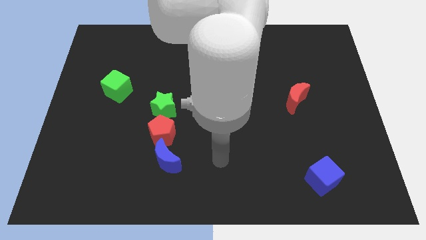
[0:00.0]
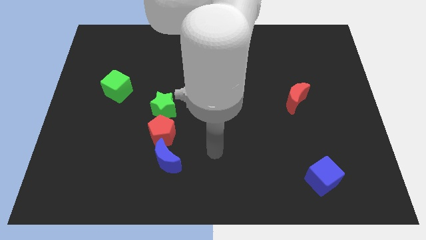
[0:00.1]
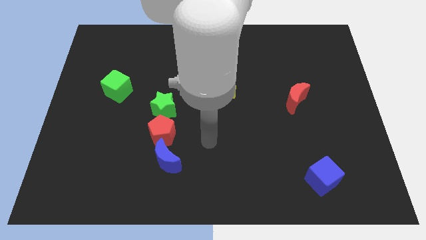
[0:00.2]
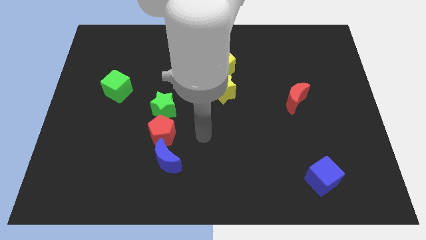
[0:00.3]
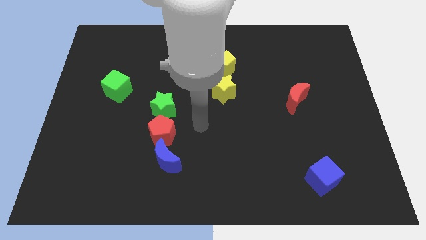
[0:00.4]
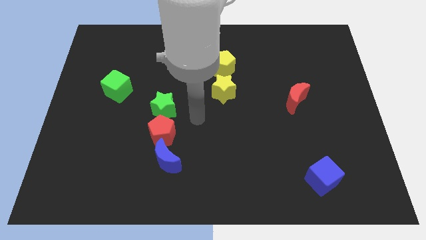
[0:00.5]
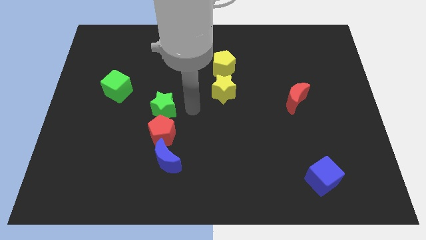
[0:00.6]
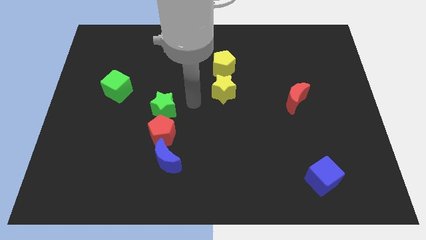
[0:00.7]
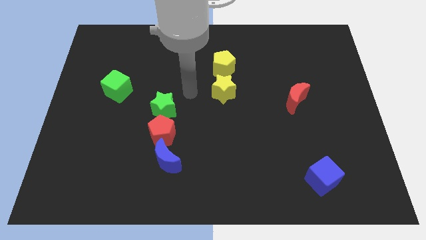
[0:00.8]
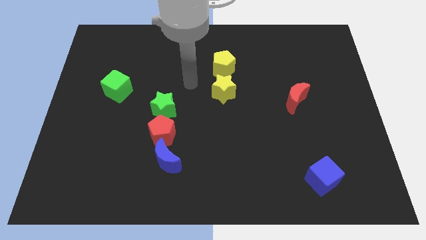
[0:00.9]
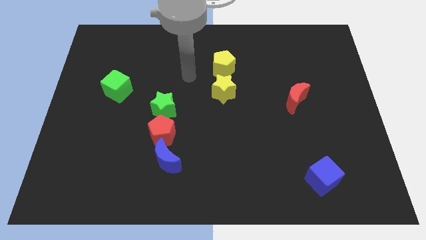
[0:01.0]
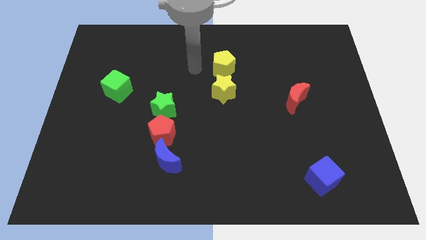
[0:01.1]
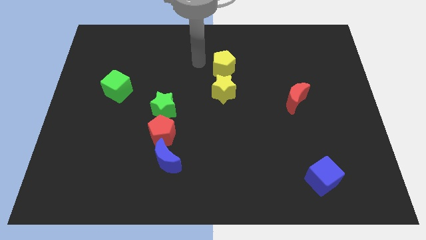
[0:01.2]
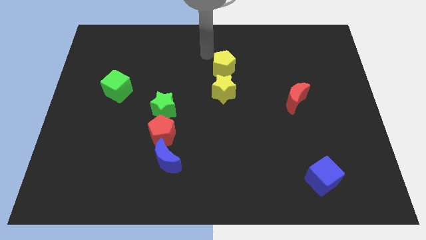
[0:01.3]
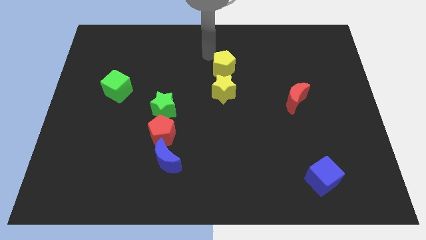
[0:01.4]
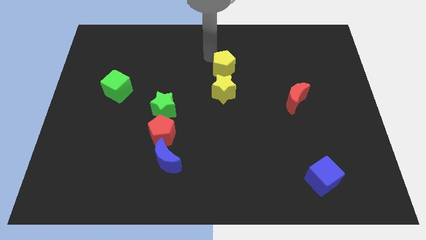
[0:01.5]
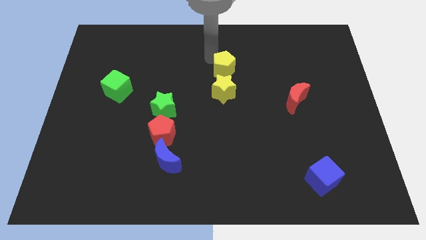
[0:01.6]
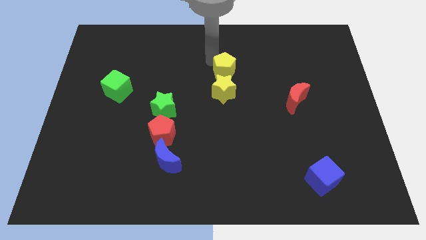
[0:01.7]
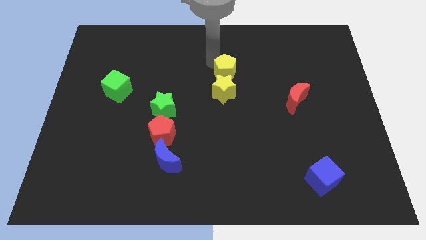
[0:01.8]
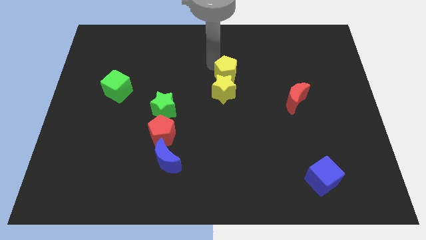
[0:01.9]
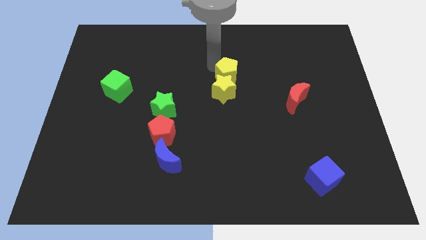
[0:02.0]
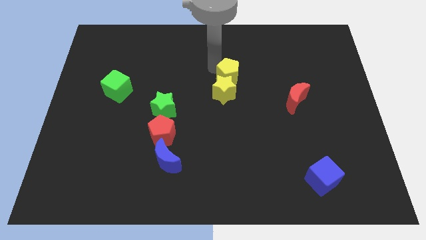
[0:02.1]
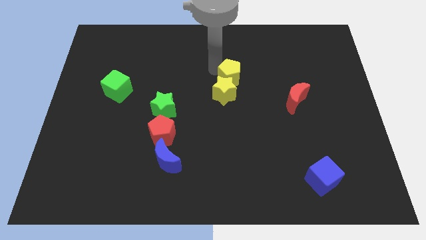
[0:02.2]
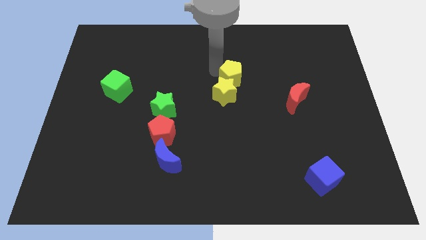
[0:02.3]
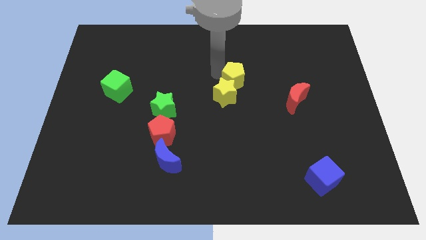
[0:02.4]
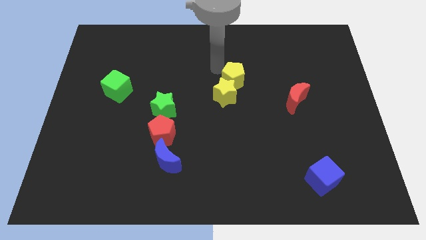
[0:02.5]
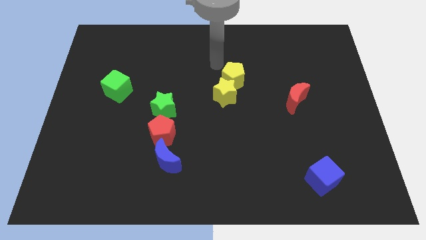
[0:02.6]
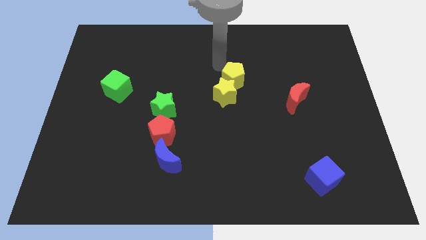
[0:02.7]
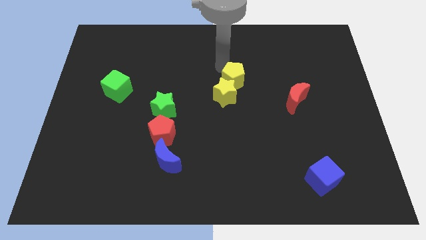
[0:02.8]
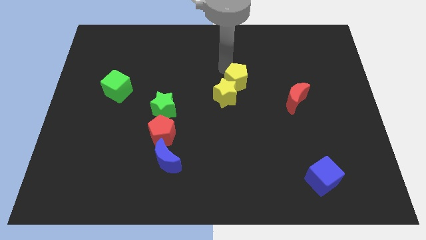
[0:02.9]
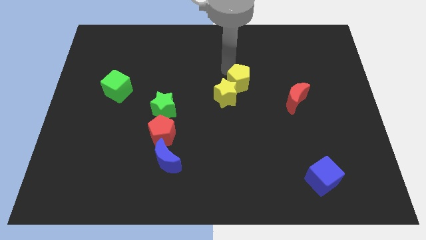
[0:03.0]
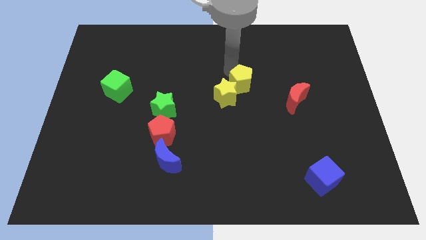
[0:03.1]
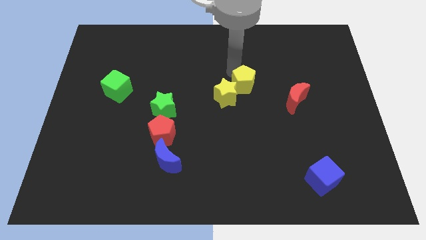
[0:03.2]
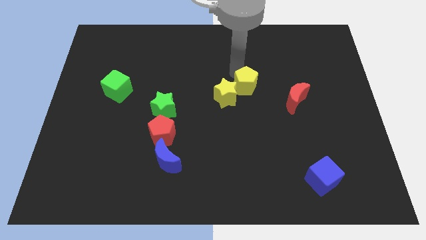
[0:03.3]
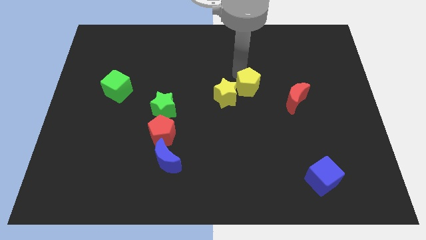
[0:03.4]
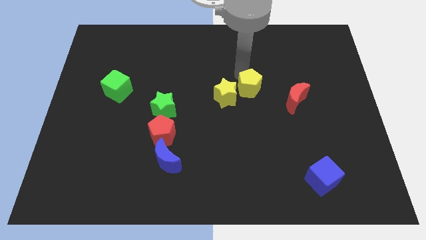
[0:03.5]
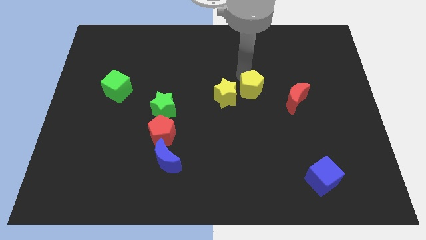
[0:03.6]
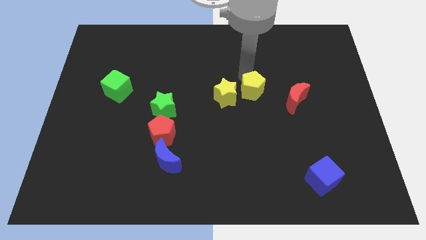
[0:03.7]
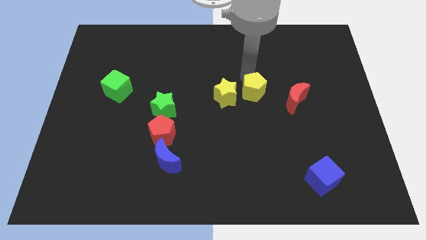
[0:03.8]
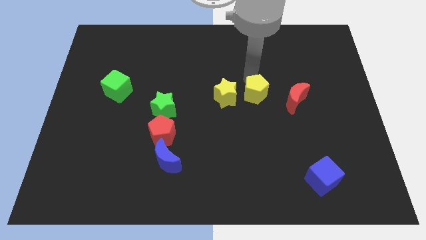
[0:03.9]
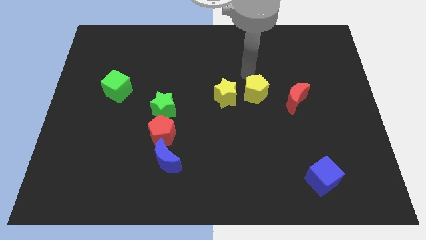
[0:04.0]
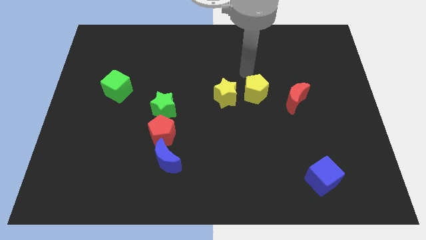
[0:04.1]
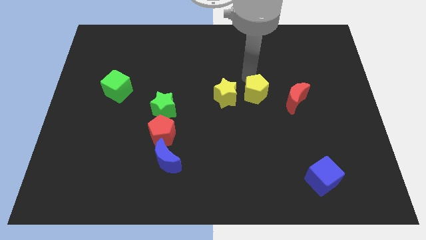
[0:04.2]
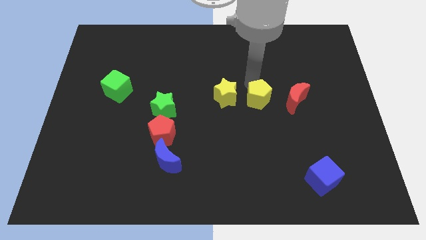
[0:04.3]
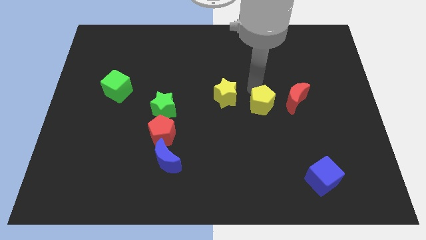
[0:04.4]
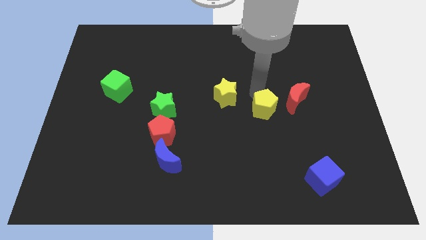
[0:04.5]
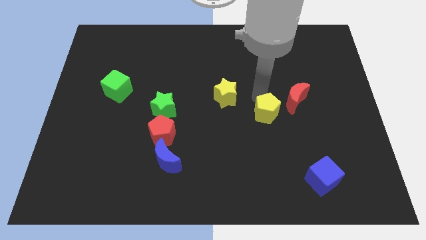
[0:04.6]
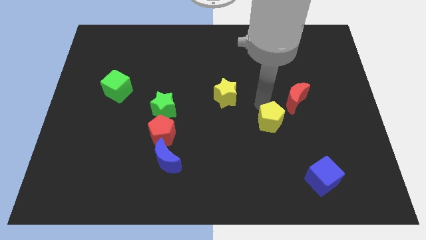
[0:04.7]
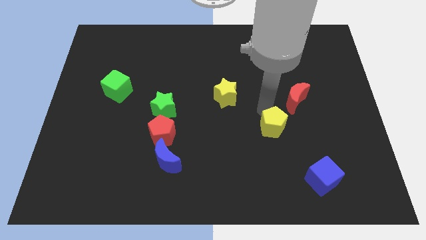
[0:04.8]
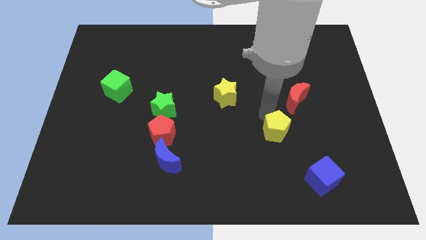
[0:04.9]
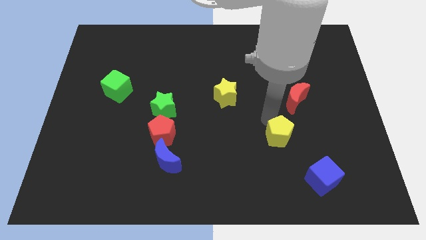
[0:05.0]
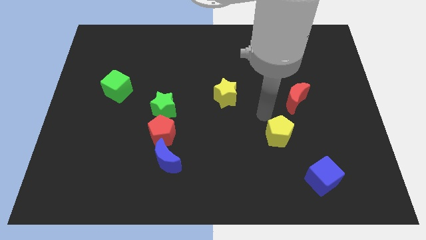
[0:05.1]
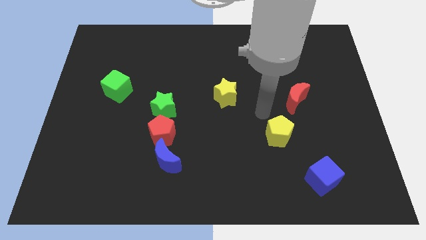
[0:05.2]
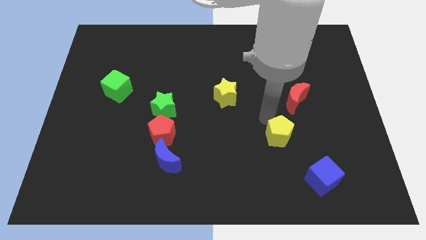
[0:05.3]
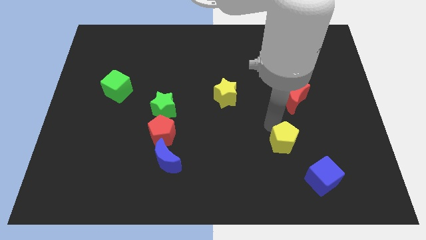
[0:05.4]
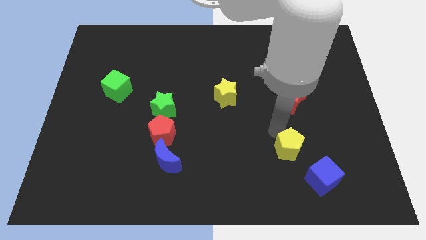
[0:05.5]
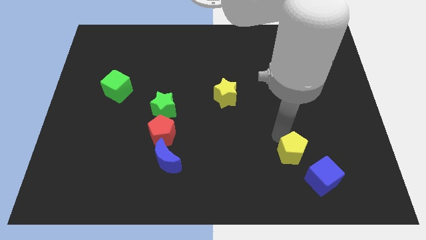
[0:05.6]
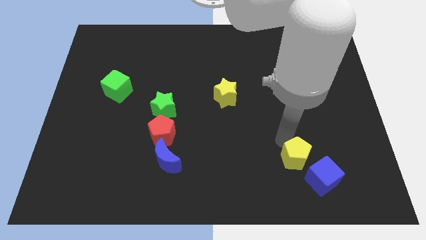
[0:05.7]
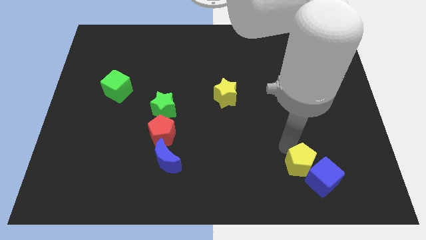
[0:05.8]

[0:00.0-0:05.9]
move the yellow pentagon close to the blue cube

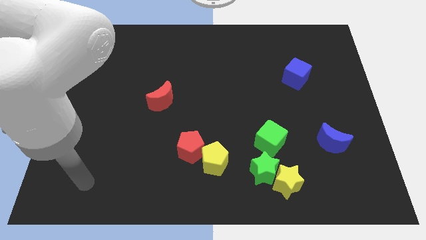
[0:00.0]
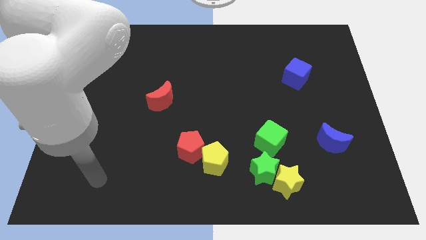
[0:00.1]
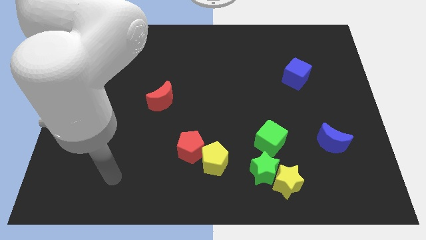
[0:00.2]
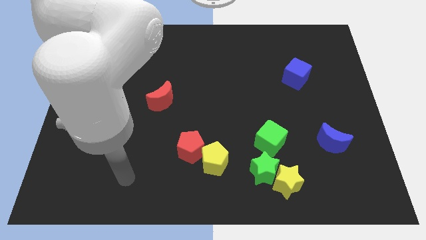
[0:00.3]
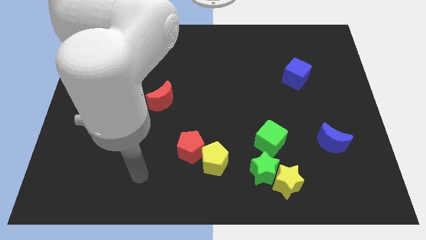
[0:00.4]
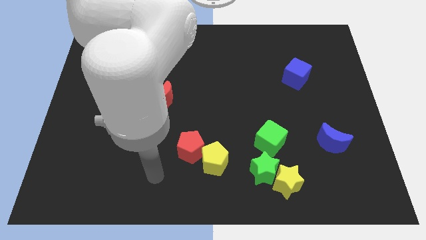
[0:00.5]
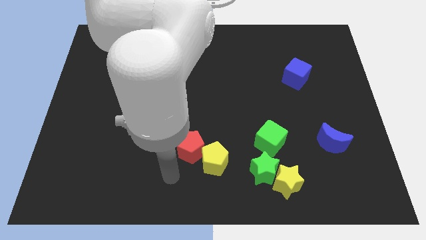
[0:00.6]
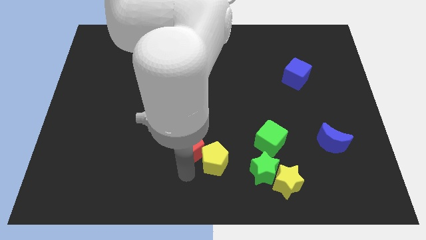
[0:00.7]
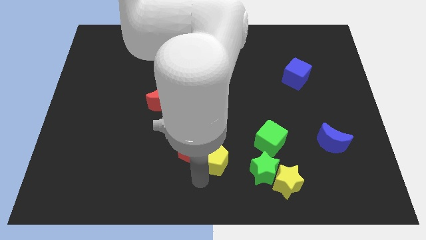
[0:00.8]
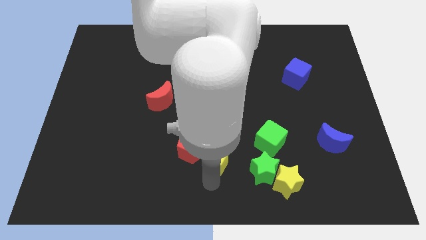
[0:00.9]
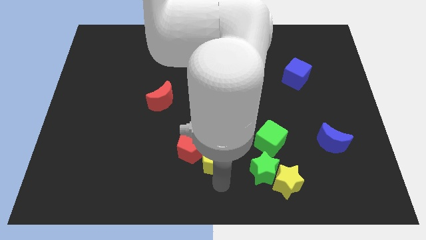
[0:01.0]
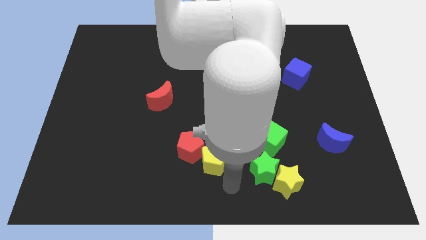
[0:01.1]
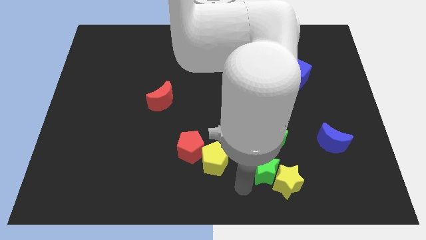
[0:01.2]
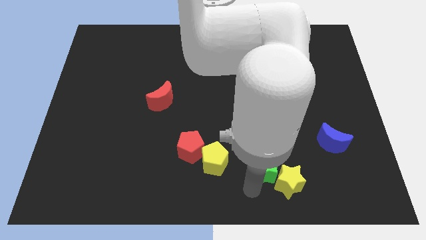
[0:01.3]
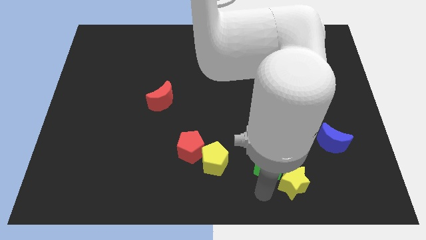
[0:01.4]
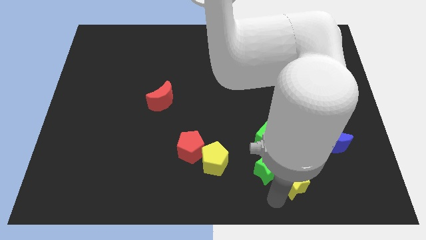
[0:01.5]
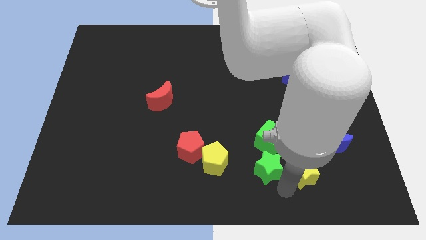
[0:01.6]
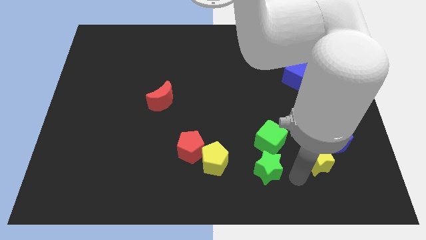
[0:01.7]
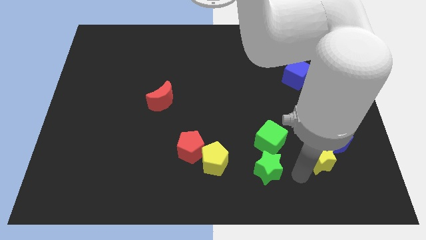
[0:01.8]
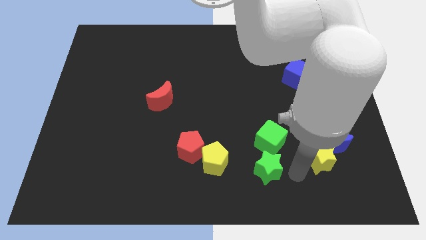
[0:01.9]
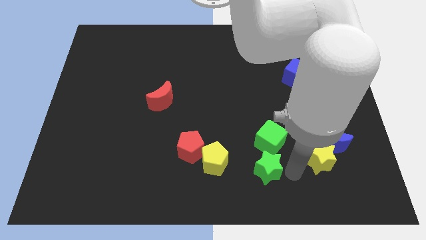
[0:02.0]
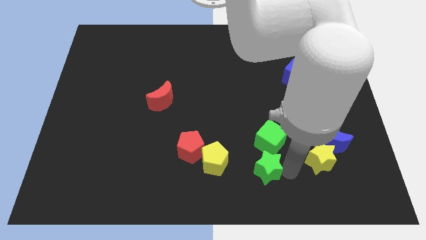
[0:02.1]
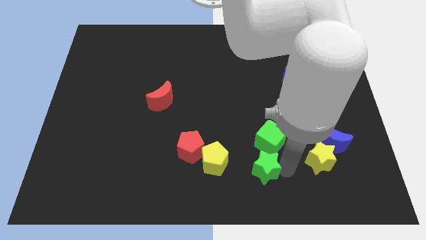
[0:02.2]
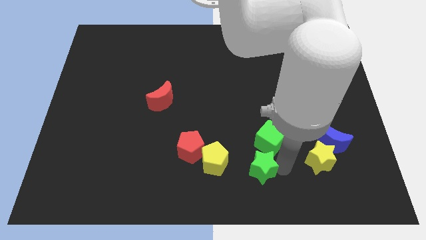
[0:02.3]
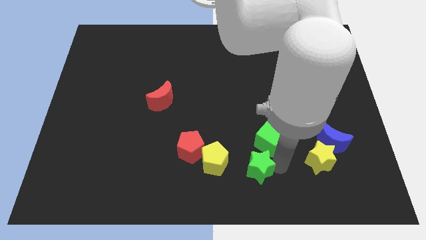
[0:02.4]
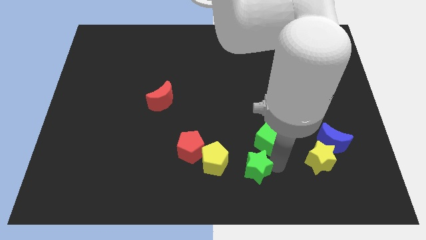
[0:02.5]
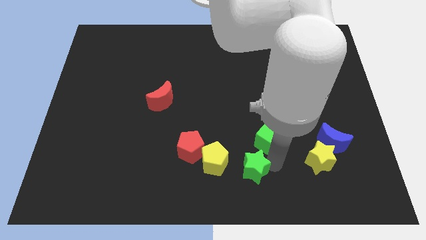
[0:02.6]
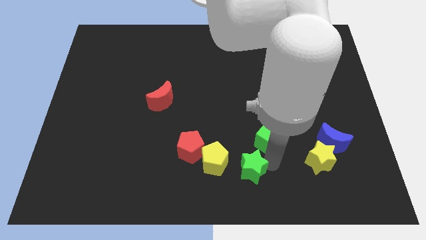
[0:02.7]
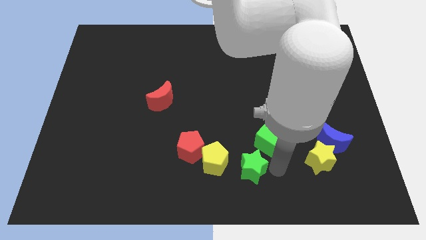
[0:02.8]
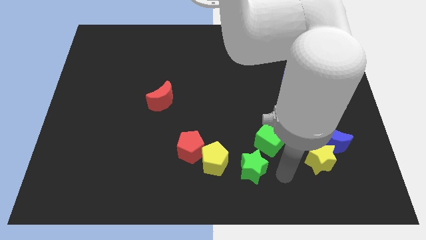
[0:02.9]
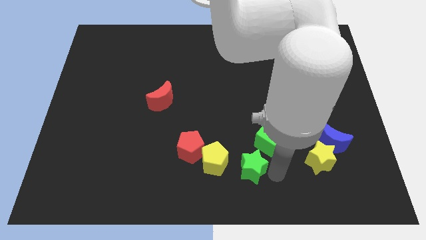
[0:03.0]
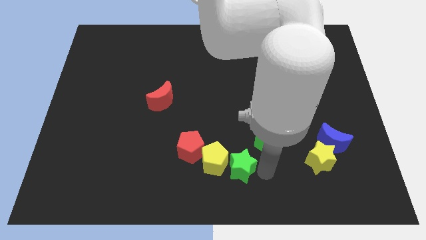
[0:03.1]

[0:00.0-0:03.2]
put the green star close to the yellow pentagon
